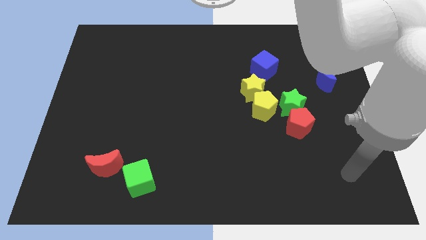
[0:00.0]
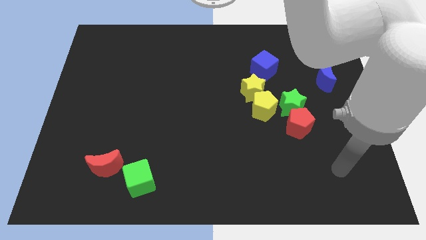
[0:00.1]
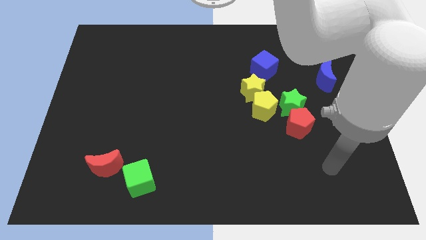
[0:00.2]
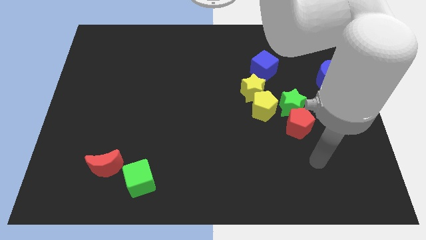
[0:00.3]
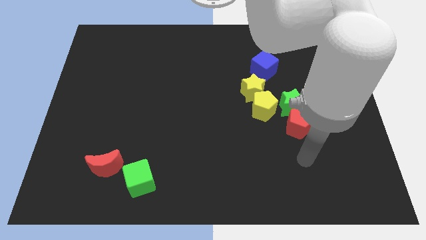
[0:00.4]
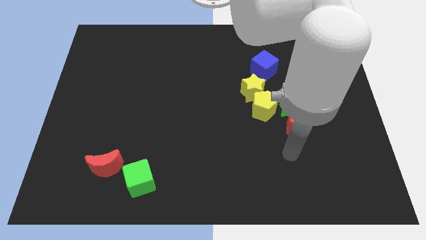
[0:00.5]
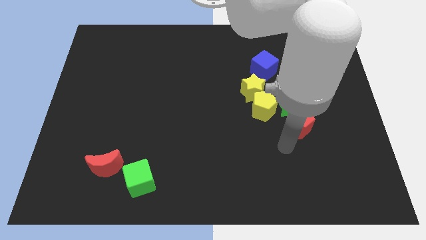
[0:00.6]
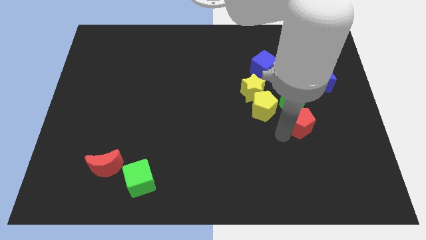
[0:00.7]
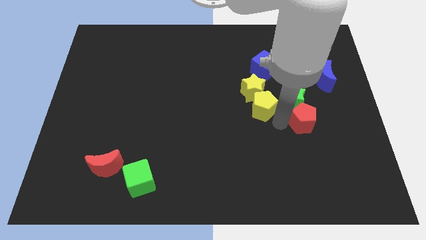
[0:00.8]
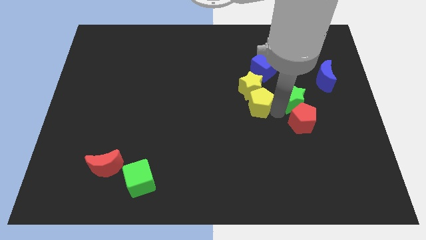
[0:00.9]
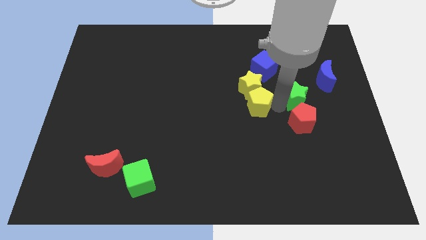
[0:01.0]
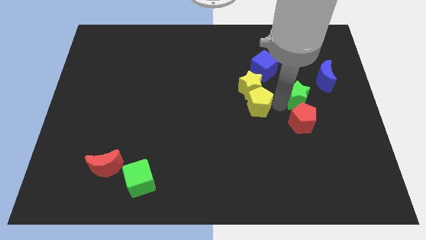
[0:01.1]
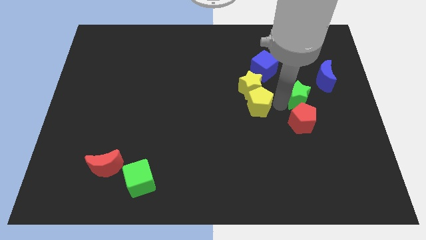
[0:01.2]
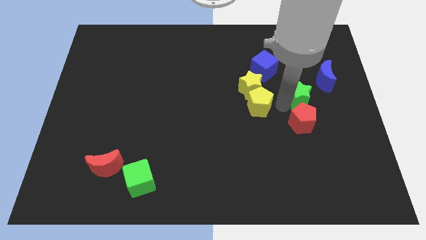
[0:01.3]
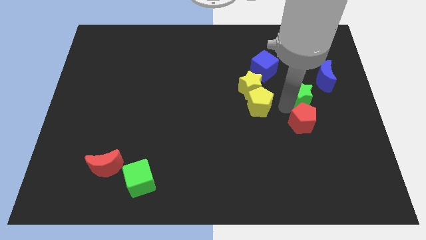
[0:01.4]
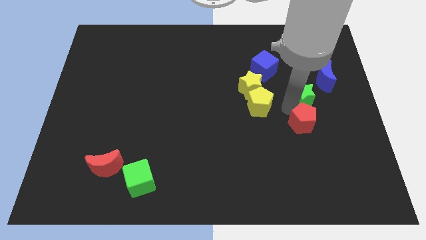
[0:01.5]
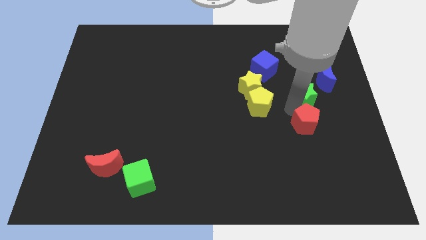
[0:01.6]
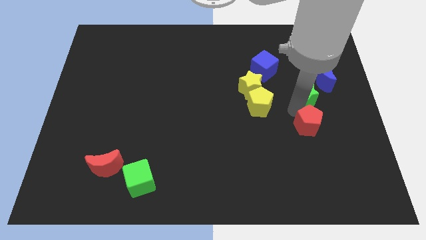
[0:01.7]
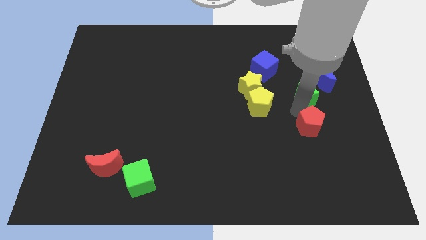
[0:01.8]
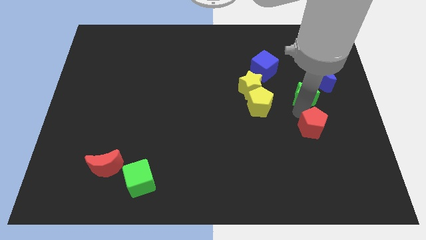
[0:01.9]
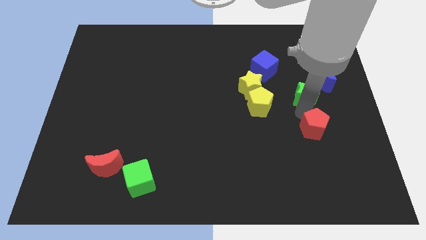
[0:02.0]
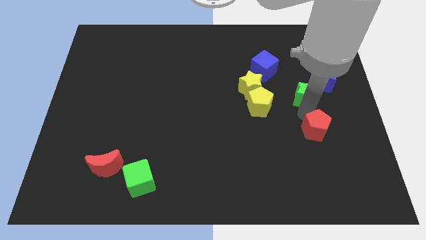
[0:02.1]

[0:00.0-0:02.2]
separate the red pentagon from the green star and yellow pentagon

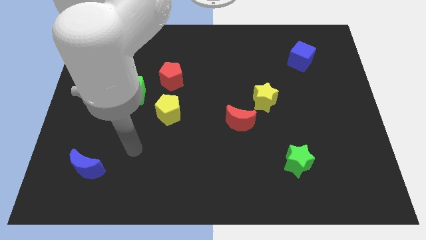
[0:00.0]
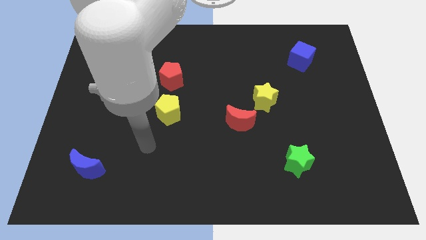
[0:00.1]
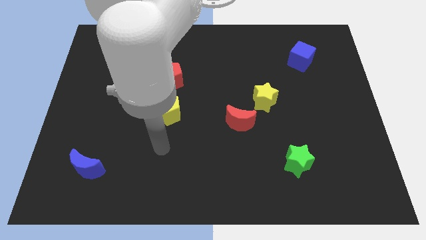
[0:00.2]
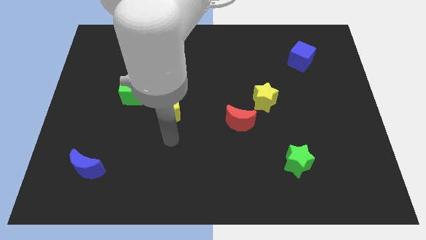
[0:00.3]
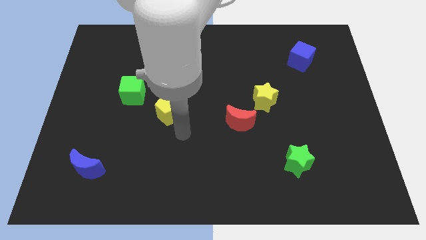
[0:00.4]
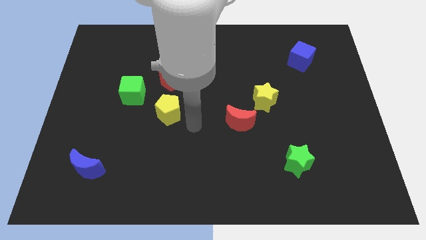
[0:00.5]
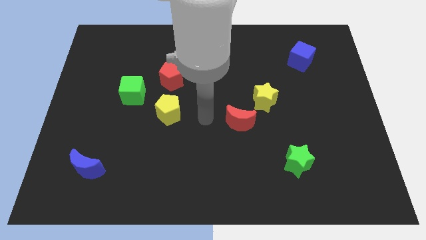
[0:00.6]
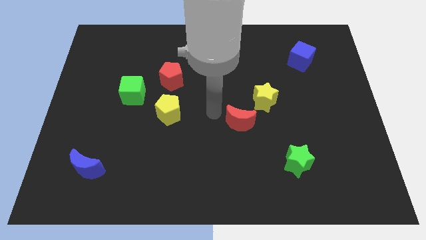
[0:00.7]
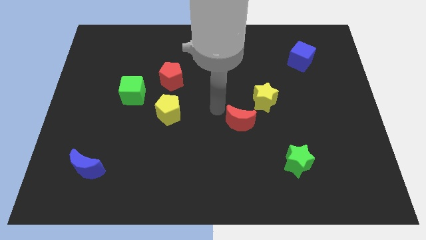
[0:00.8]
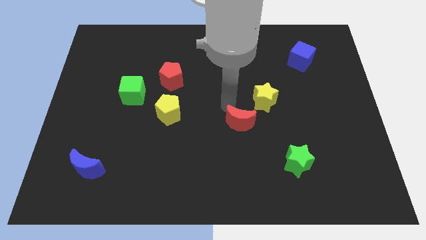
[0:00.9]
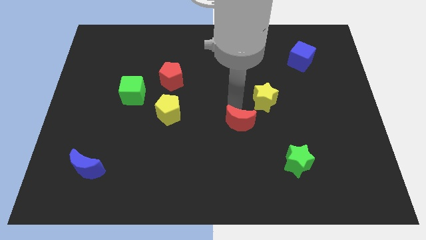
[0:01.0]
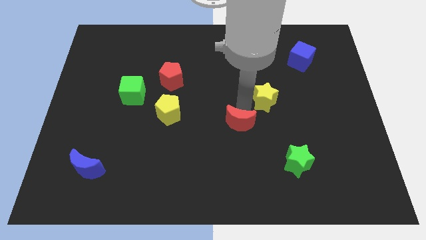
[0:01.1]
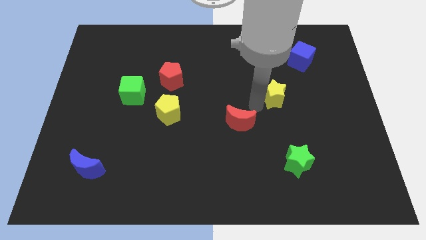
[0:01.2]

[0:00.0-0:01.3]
separate the red moon from the yellow star

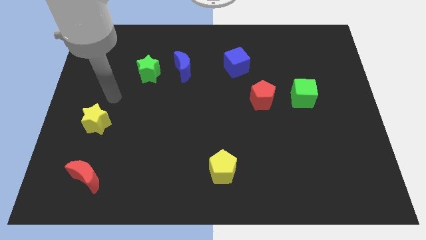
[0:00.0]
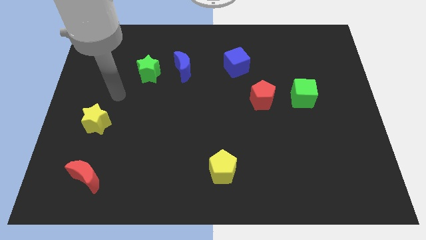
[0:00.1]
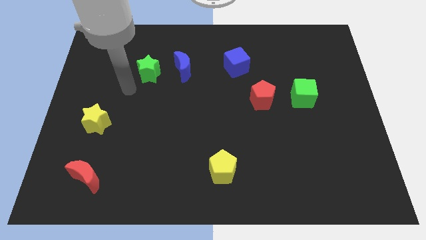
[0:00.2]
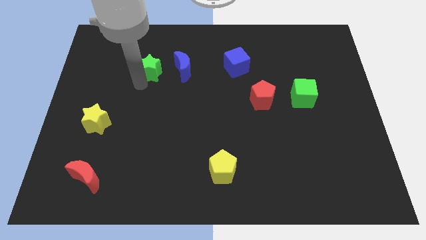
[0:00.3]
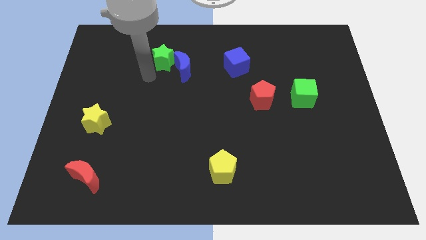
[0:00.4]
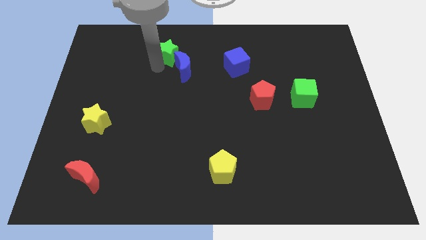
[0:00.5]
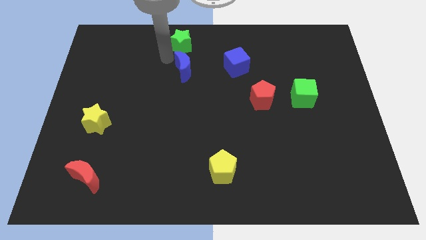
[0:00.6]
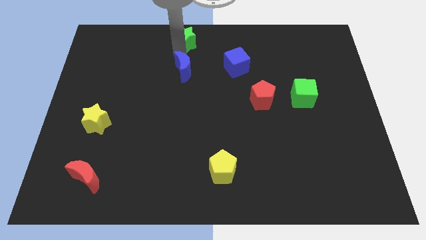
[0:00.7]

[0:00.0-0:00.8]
pull the blue moon apart from the green star

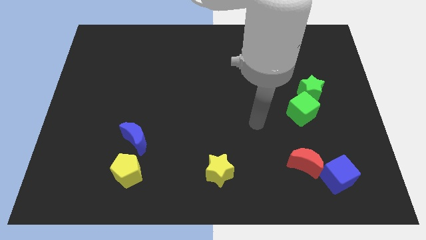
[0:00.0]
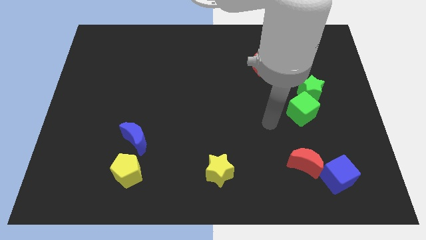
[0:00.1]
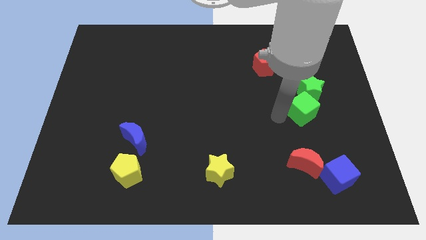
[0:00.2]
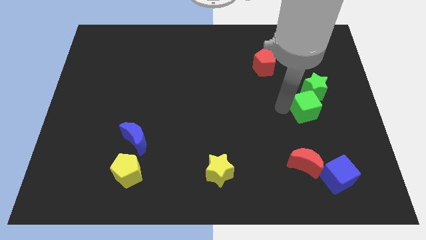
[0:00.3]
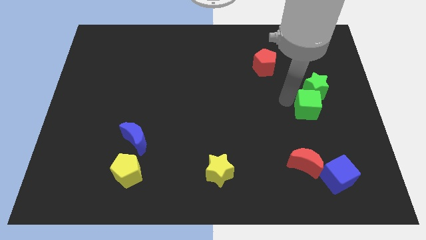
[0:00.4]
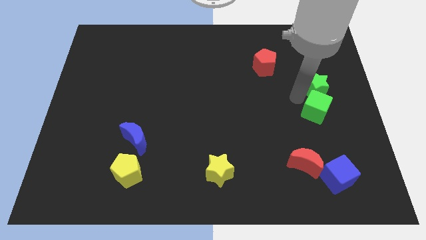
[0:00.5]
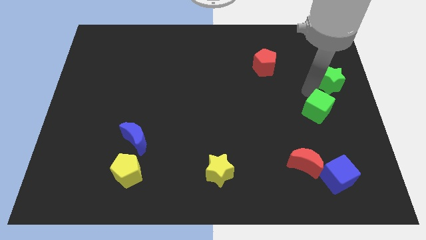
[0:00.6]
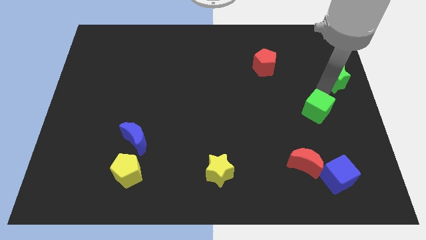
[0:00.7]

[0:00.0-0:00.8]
pull the green cube apart from the green star

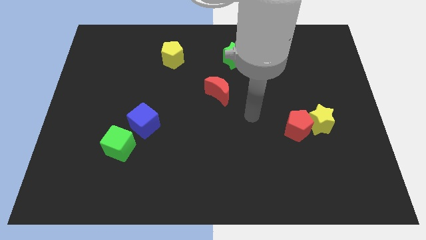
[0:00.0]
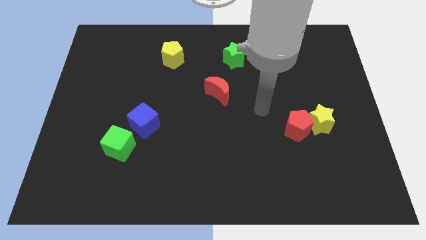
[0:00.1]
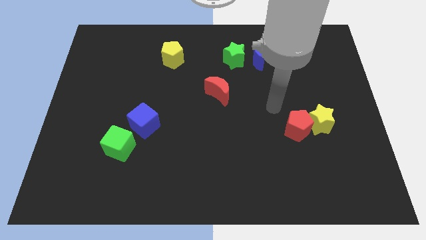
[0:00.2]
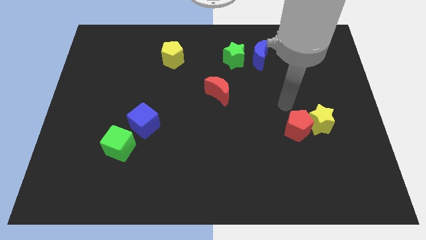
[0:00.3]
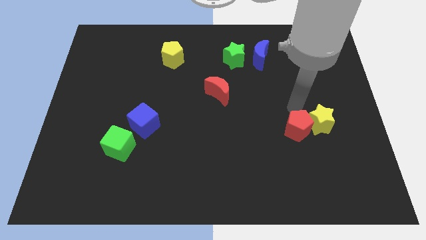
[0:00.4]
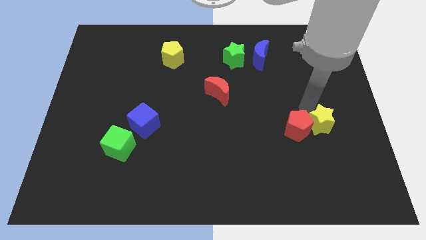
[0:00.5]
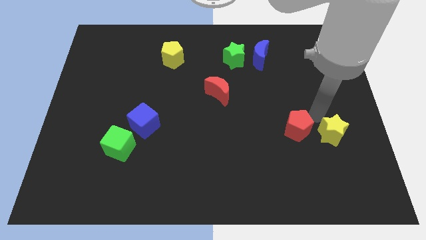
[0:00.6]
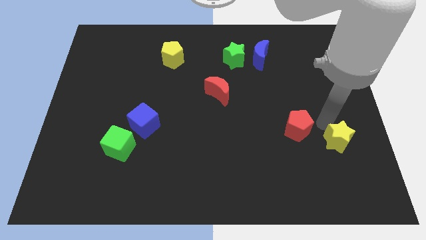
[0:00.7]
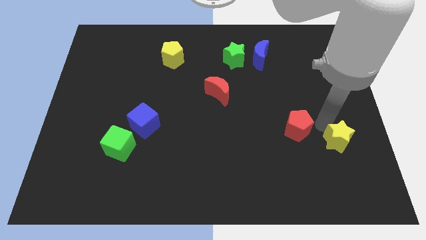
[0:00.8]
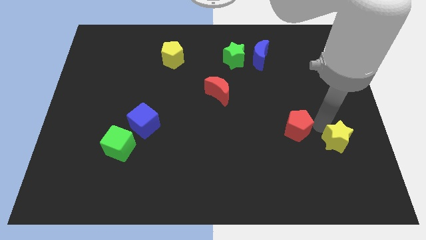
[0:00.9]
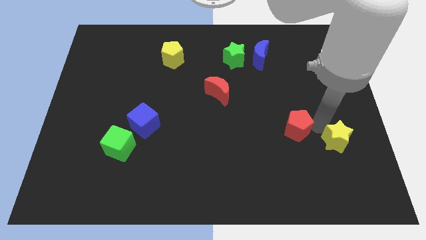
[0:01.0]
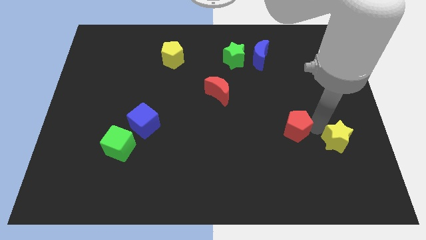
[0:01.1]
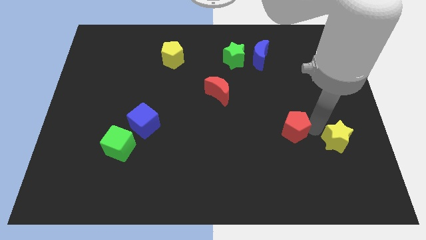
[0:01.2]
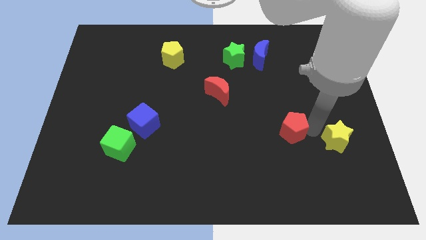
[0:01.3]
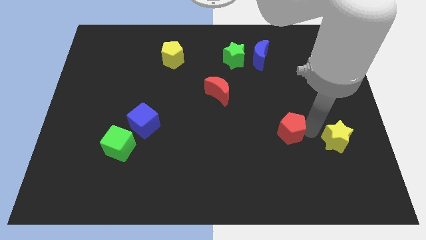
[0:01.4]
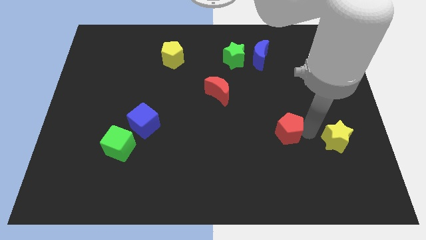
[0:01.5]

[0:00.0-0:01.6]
pull the red pentagon apart from the yellow star

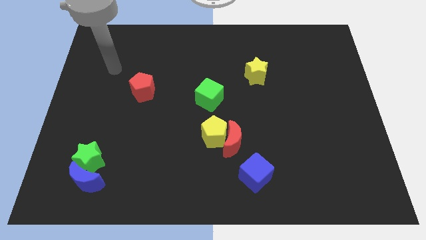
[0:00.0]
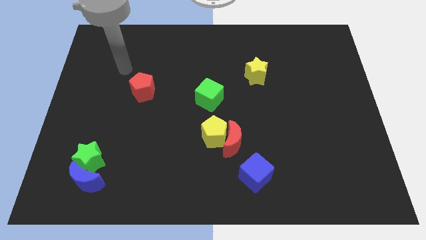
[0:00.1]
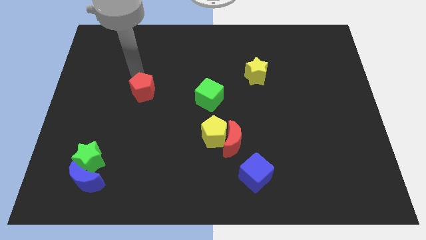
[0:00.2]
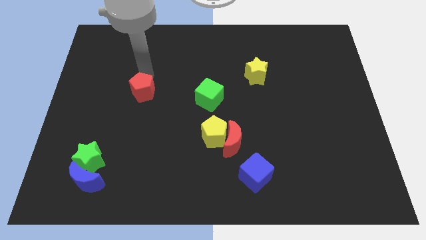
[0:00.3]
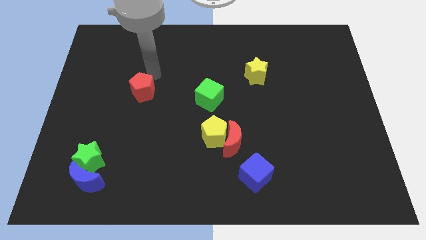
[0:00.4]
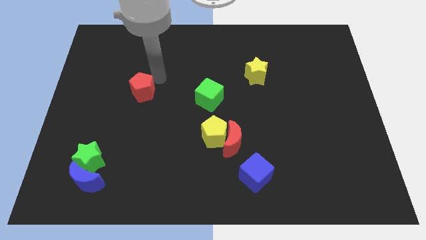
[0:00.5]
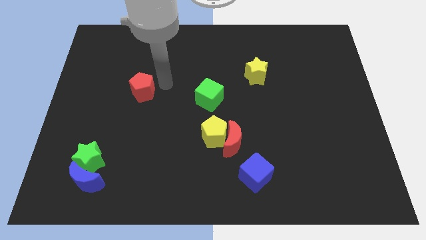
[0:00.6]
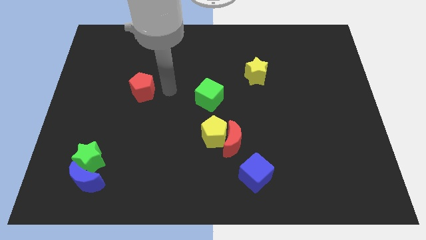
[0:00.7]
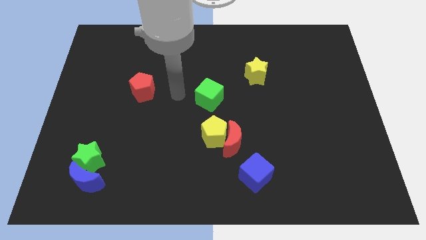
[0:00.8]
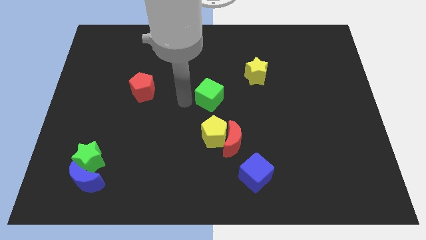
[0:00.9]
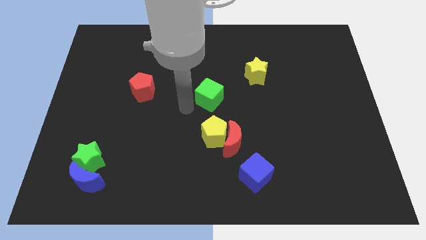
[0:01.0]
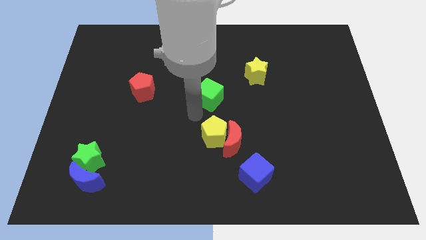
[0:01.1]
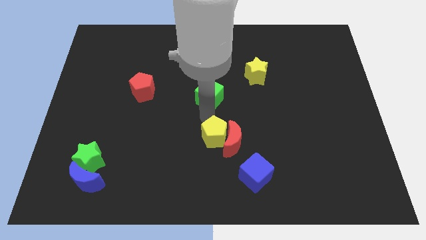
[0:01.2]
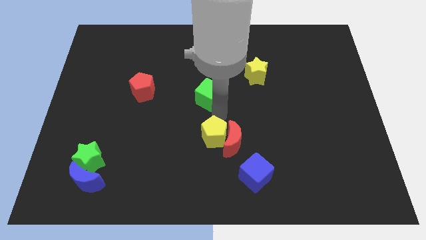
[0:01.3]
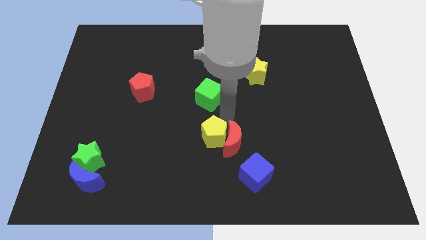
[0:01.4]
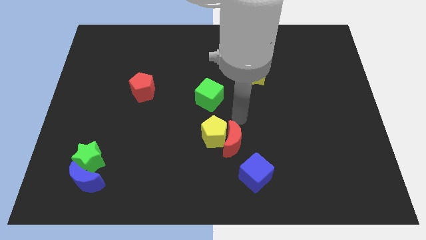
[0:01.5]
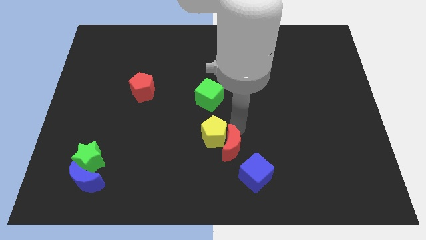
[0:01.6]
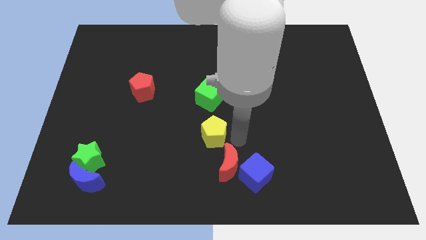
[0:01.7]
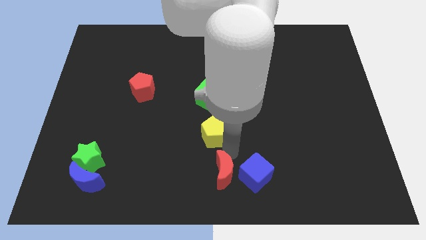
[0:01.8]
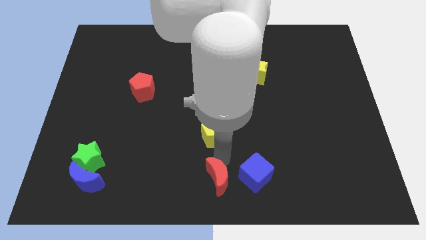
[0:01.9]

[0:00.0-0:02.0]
pull the yellow pentagon apart from the red moon

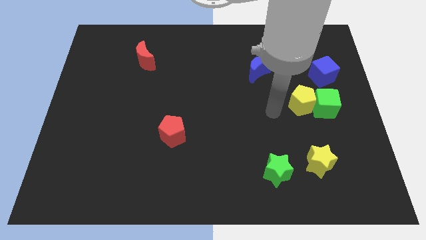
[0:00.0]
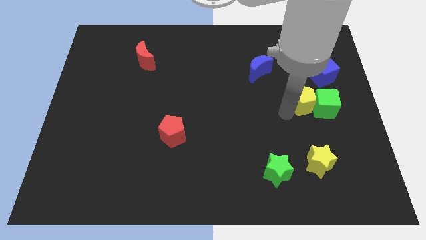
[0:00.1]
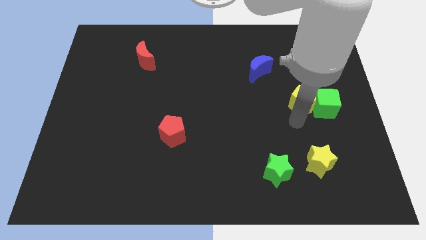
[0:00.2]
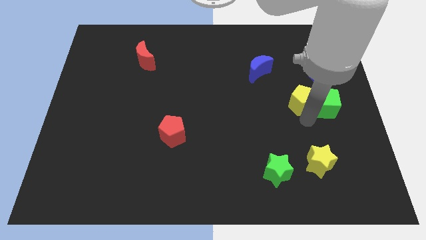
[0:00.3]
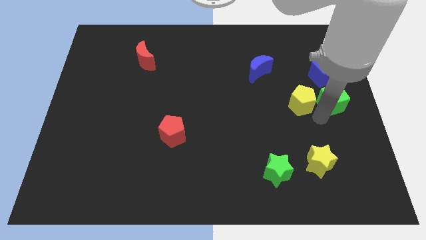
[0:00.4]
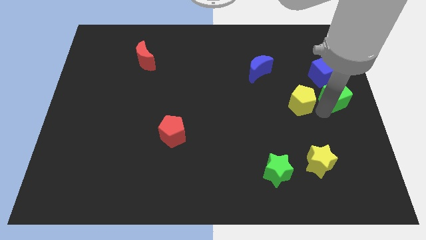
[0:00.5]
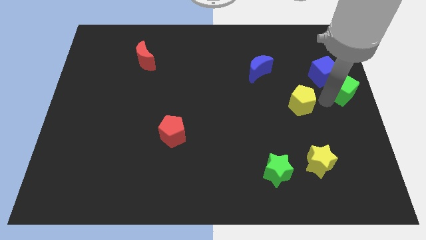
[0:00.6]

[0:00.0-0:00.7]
move the yellow pentagon away from the green cube
